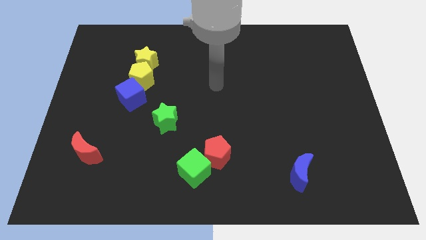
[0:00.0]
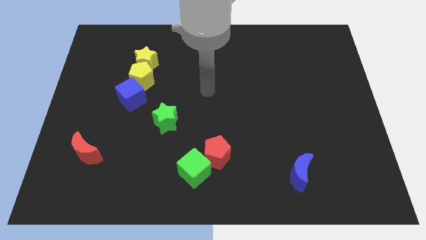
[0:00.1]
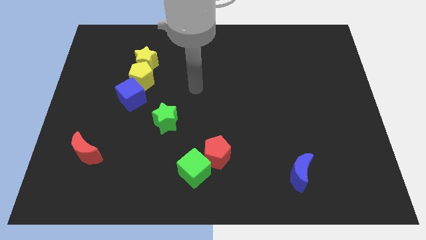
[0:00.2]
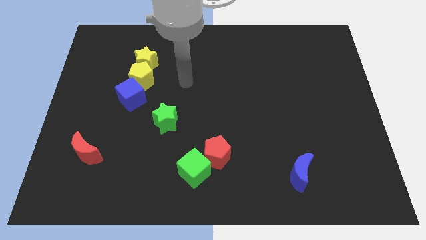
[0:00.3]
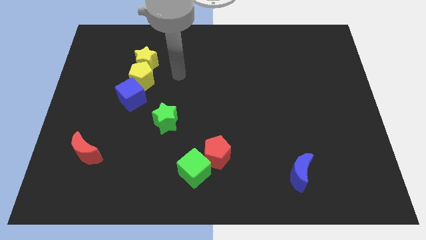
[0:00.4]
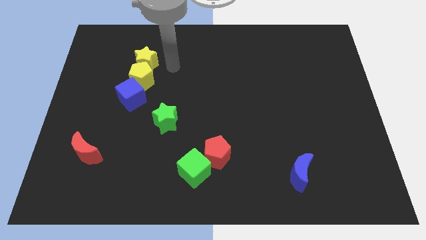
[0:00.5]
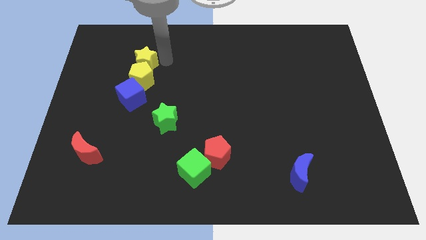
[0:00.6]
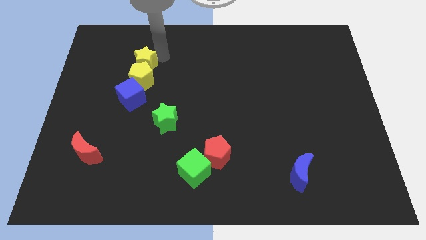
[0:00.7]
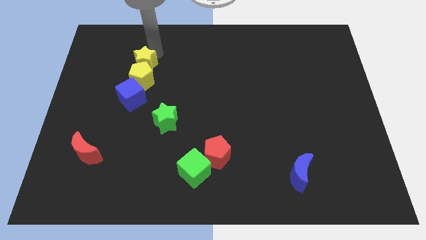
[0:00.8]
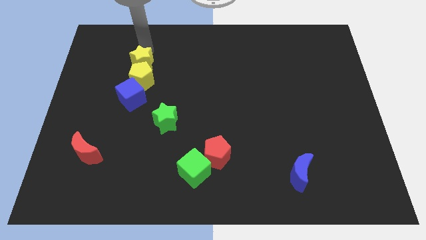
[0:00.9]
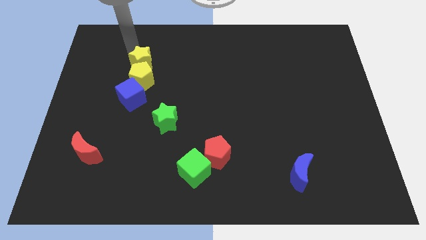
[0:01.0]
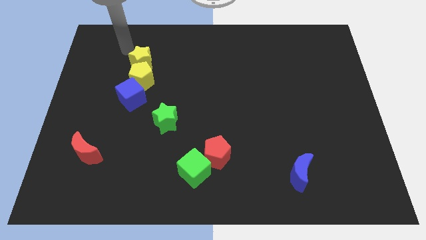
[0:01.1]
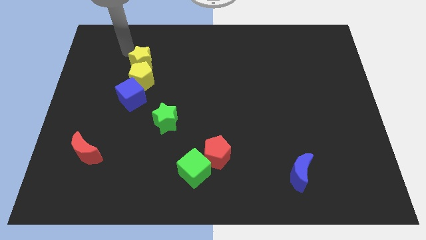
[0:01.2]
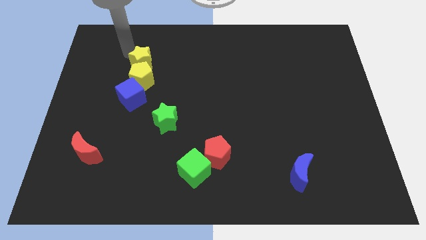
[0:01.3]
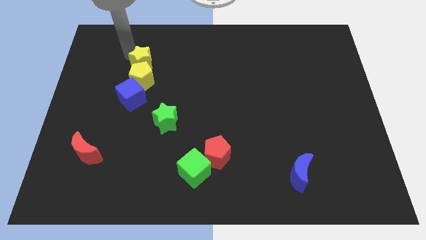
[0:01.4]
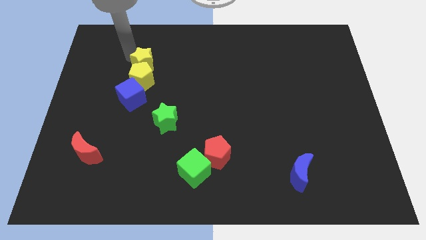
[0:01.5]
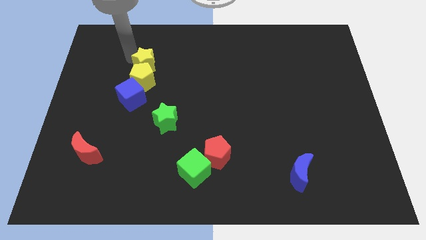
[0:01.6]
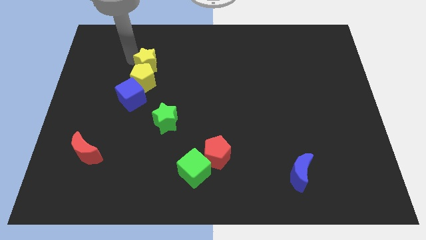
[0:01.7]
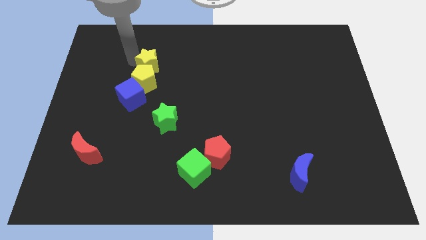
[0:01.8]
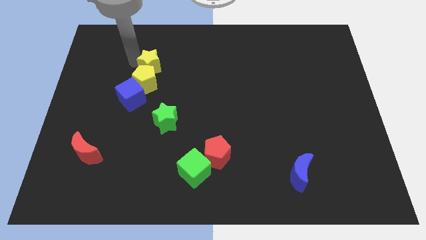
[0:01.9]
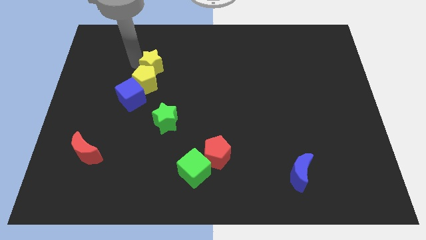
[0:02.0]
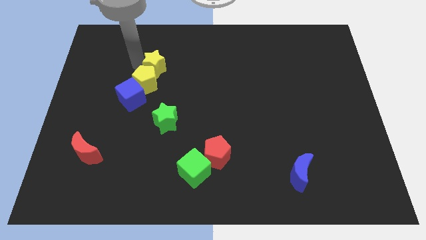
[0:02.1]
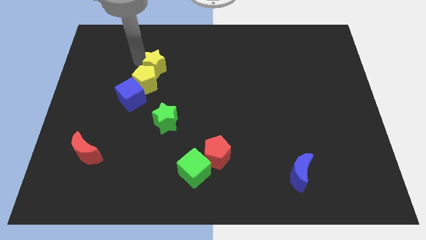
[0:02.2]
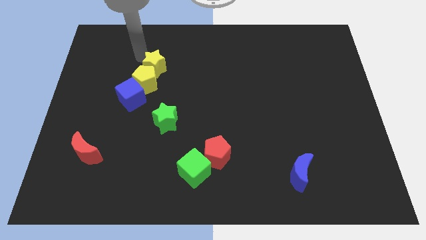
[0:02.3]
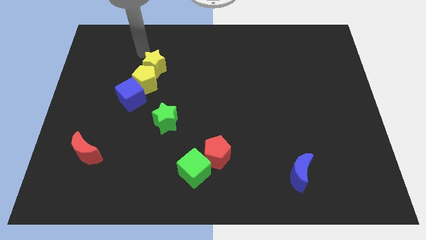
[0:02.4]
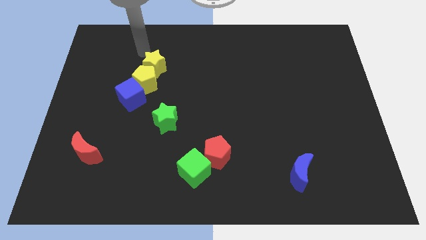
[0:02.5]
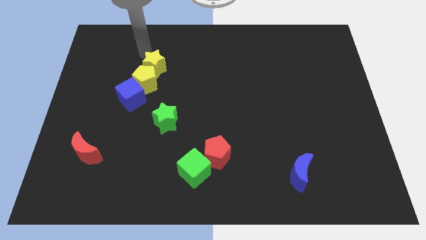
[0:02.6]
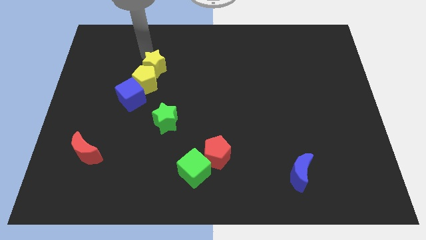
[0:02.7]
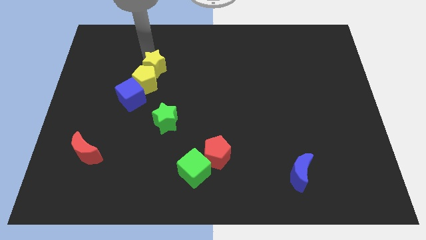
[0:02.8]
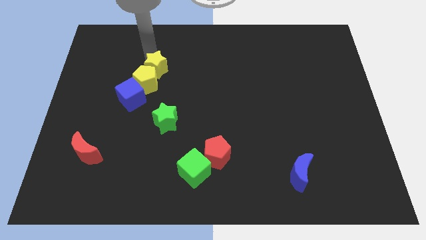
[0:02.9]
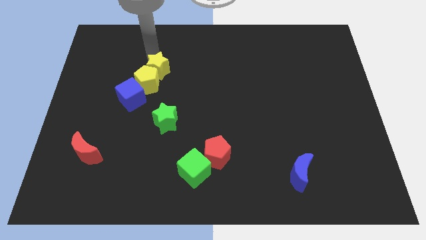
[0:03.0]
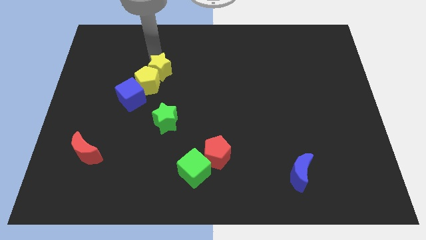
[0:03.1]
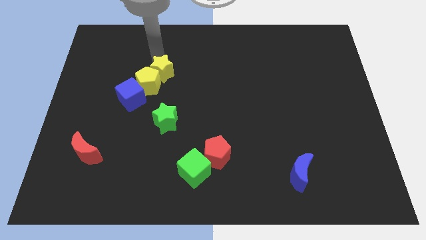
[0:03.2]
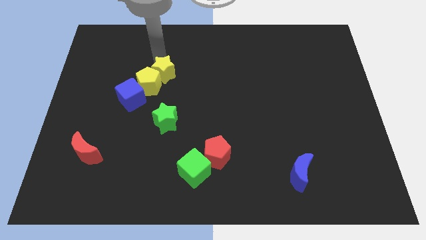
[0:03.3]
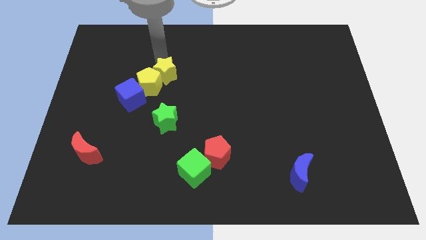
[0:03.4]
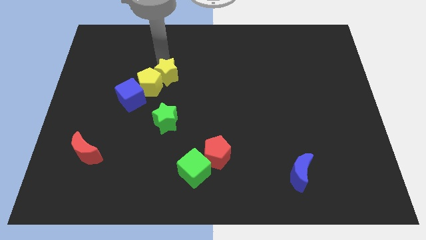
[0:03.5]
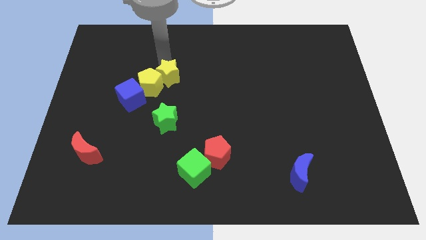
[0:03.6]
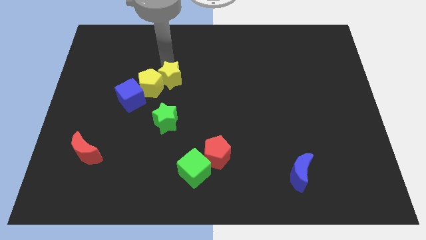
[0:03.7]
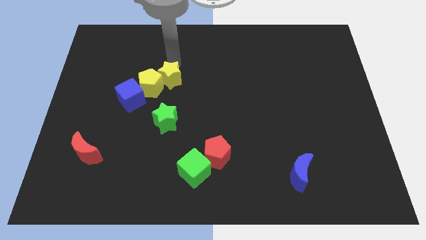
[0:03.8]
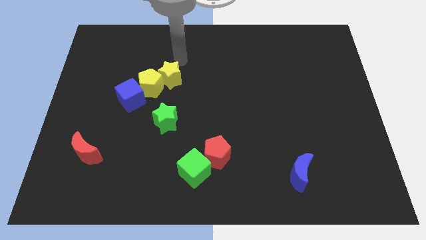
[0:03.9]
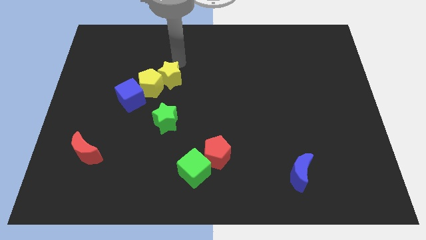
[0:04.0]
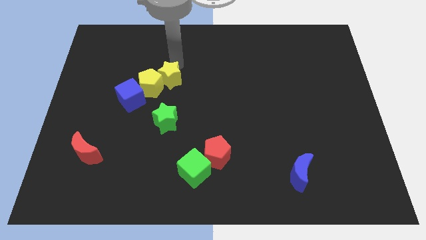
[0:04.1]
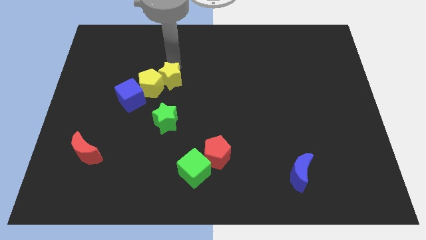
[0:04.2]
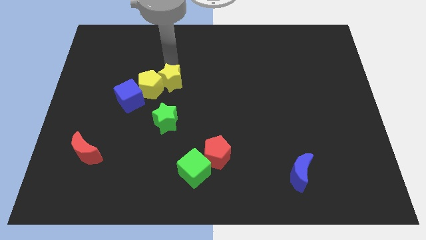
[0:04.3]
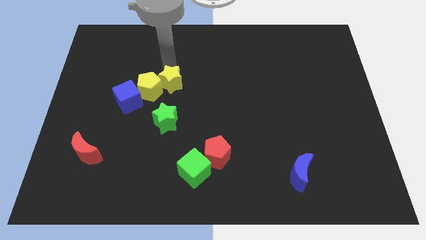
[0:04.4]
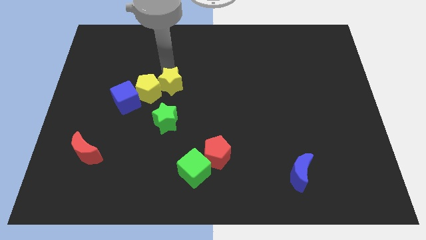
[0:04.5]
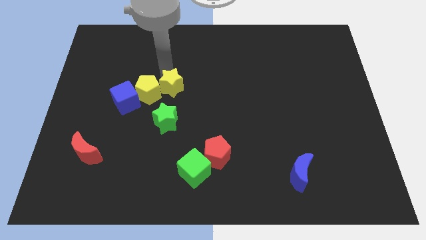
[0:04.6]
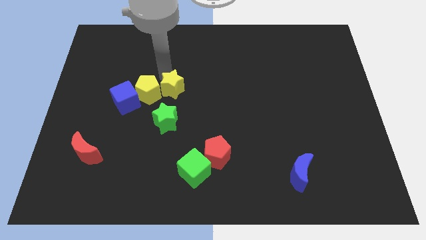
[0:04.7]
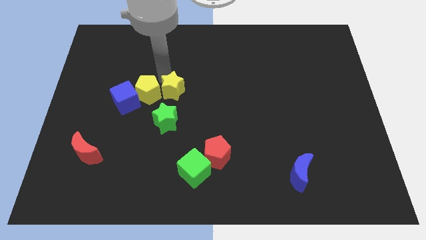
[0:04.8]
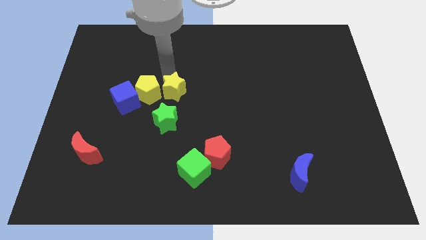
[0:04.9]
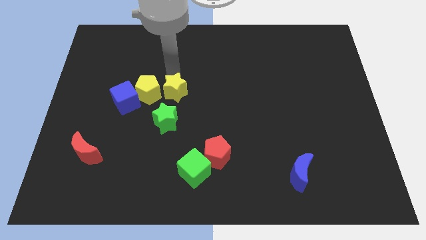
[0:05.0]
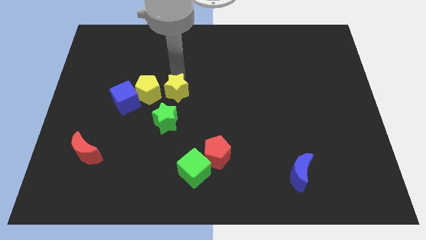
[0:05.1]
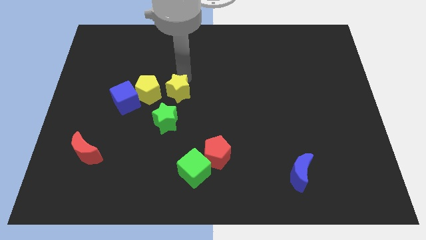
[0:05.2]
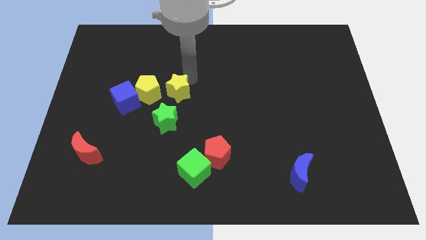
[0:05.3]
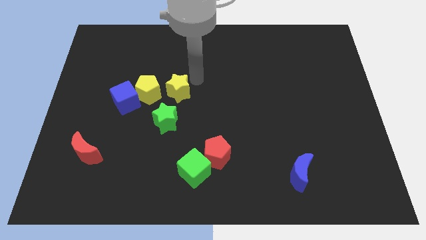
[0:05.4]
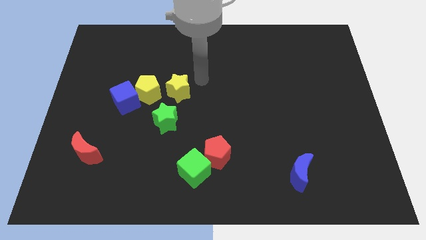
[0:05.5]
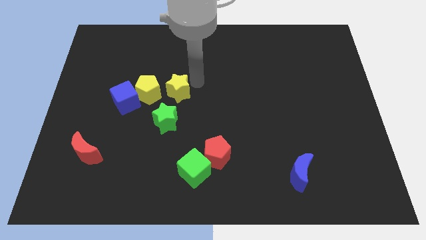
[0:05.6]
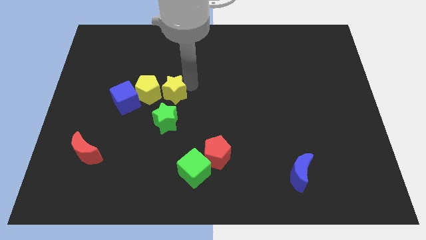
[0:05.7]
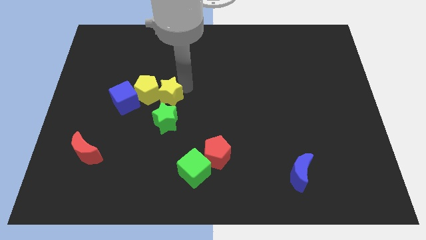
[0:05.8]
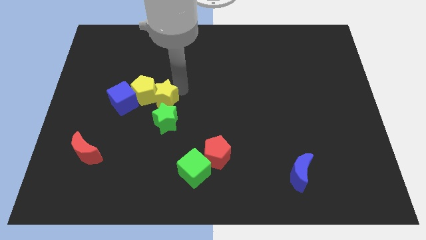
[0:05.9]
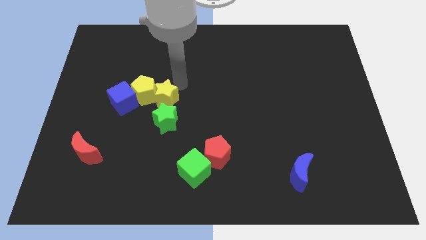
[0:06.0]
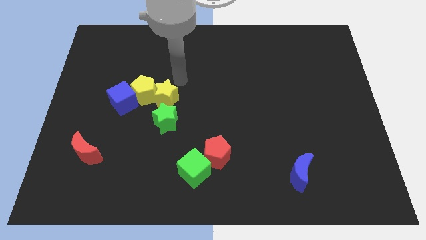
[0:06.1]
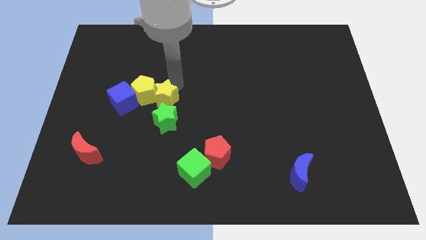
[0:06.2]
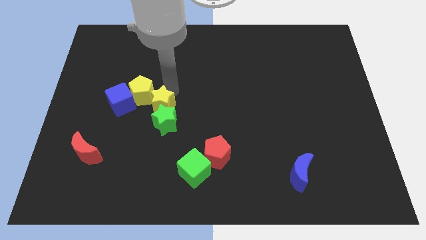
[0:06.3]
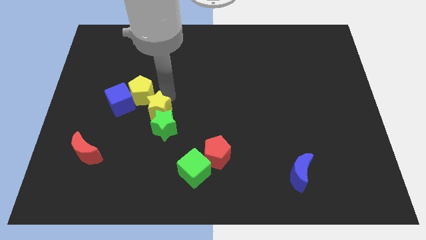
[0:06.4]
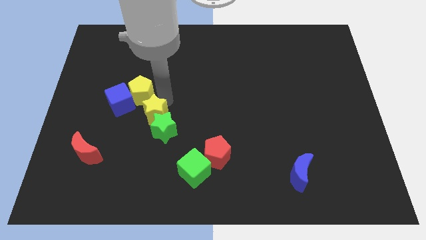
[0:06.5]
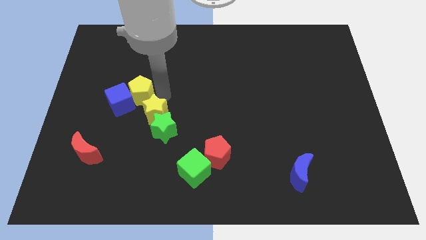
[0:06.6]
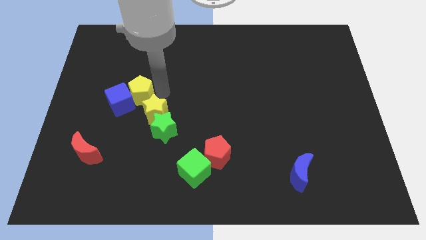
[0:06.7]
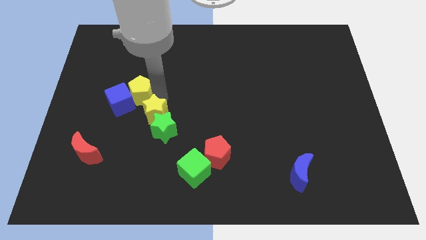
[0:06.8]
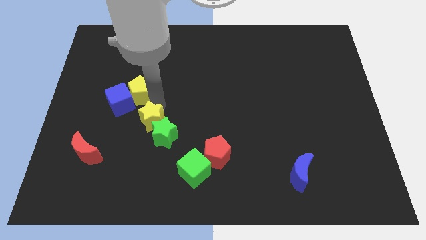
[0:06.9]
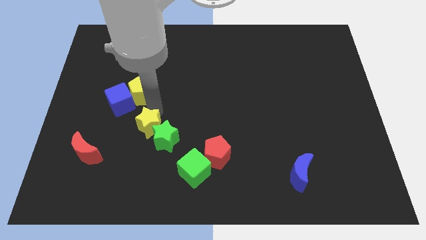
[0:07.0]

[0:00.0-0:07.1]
move the yellow star down

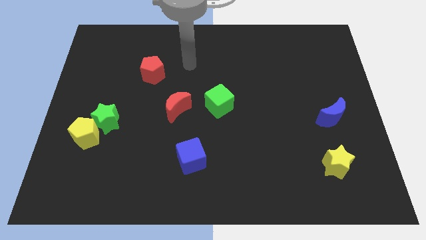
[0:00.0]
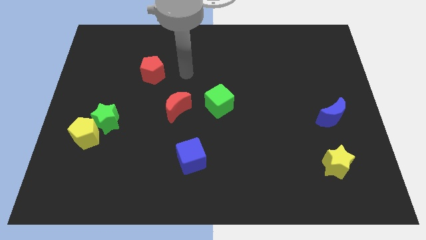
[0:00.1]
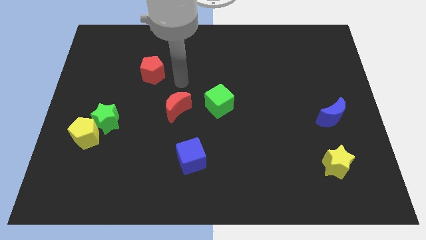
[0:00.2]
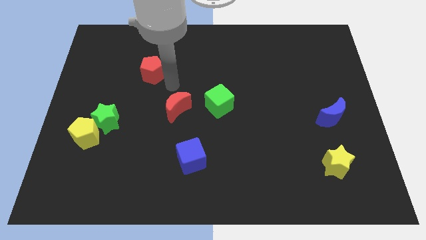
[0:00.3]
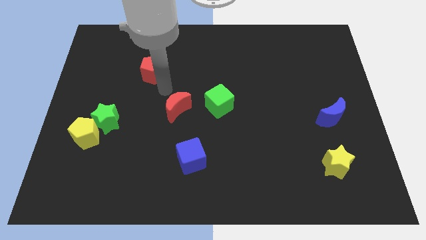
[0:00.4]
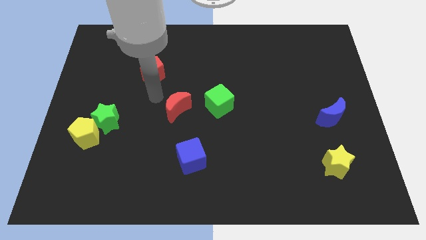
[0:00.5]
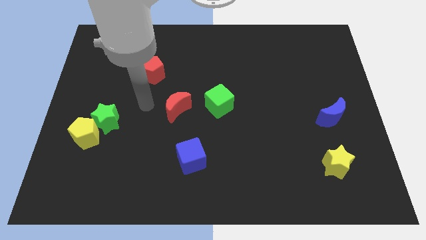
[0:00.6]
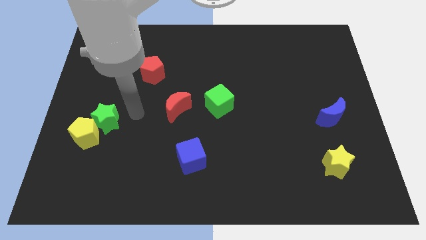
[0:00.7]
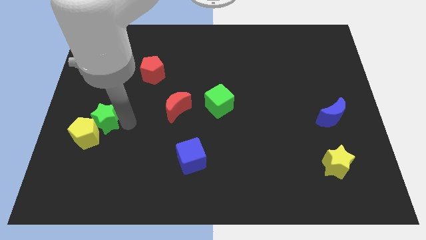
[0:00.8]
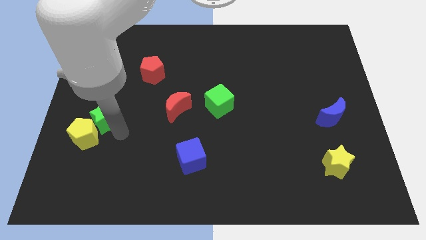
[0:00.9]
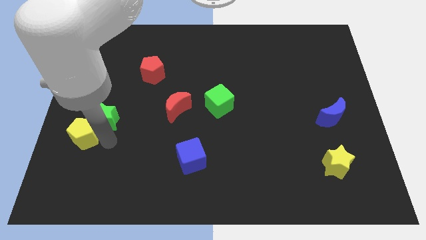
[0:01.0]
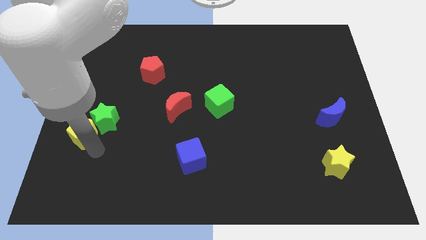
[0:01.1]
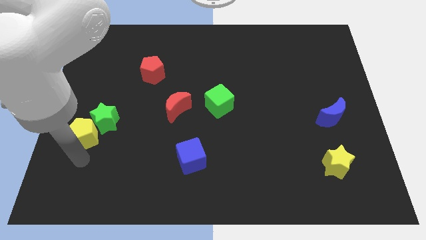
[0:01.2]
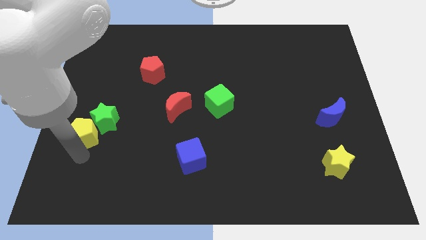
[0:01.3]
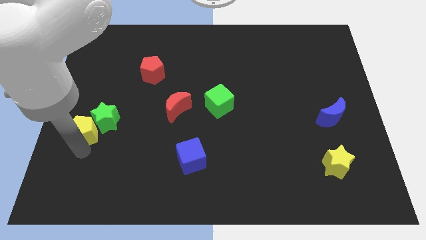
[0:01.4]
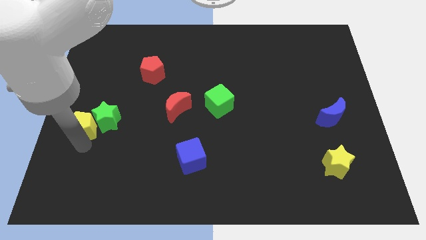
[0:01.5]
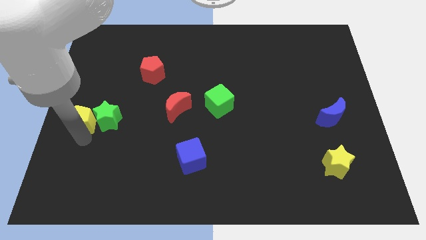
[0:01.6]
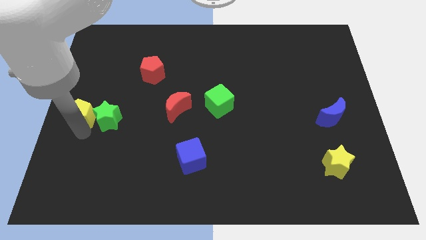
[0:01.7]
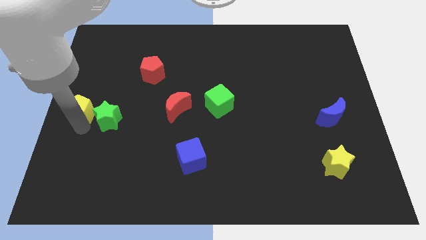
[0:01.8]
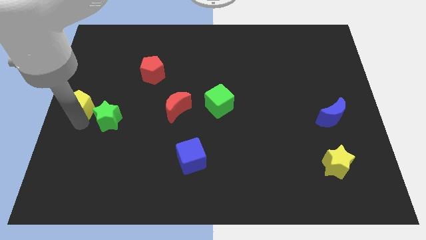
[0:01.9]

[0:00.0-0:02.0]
move the yellow pentagon somewhat up
